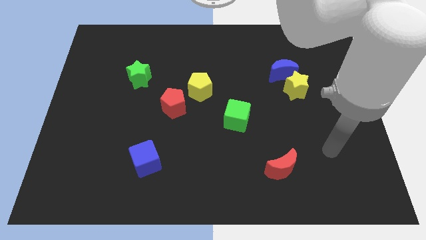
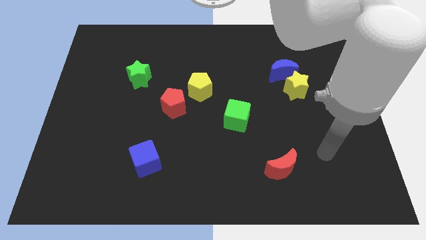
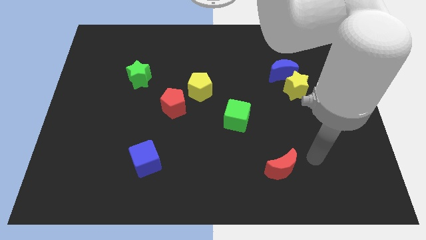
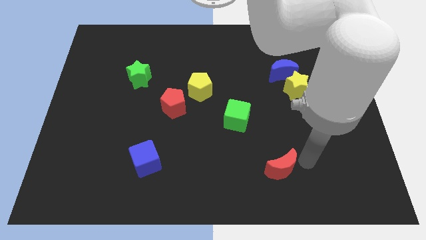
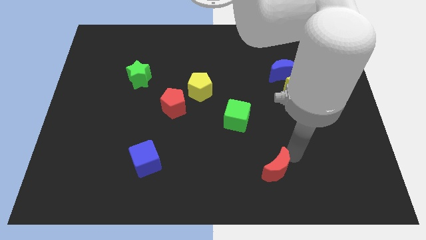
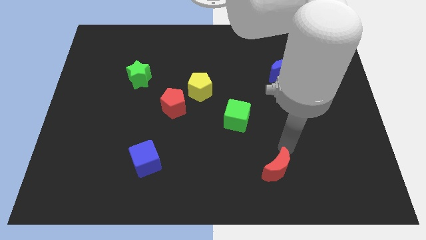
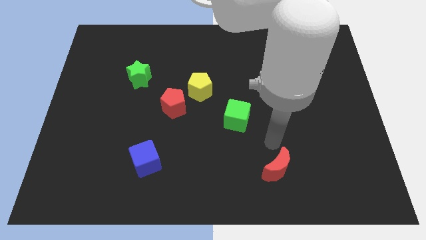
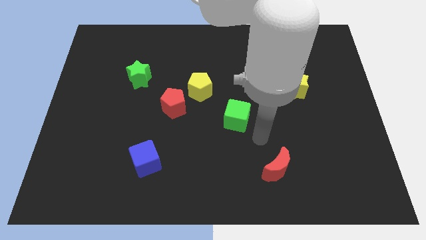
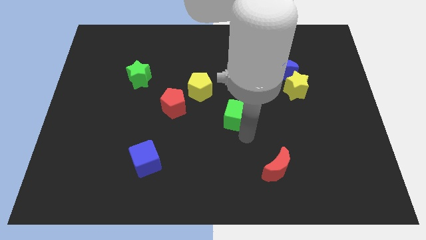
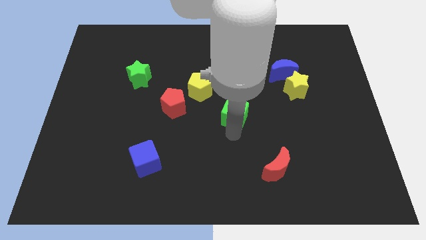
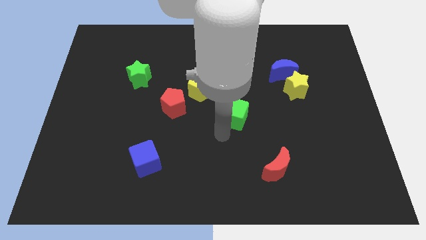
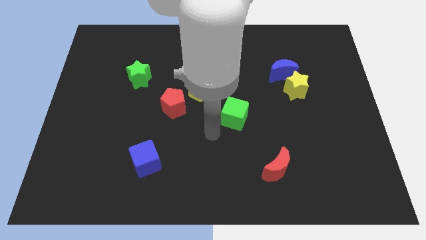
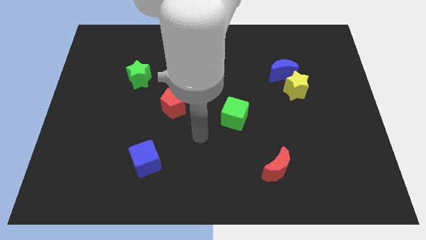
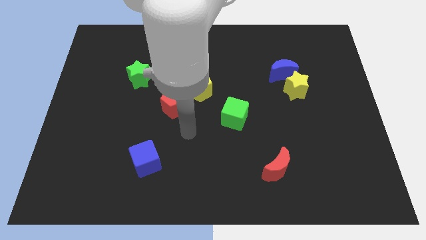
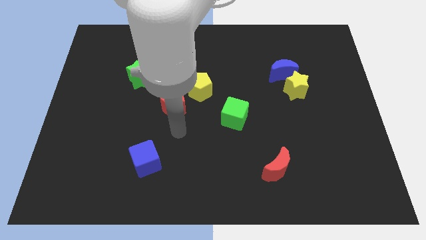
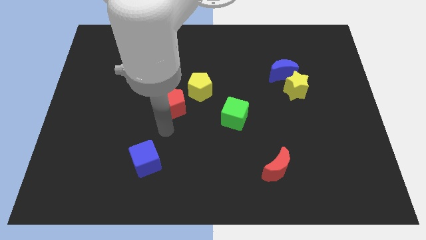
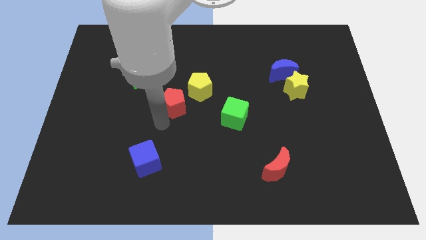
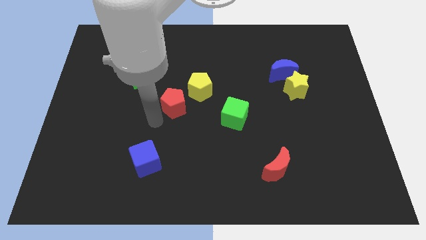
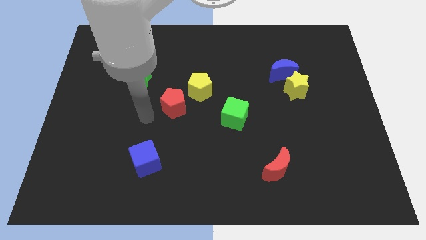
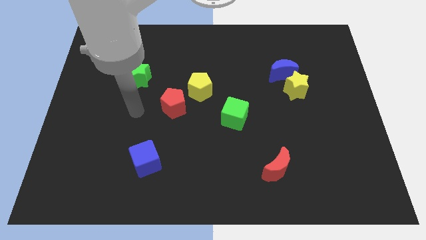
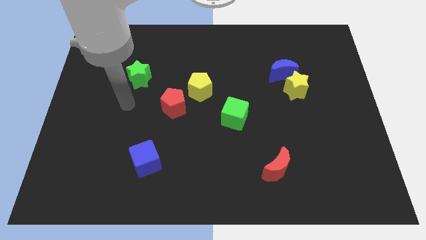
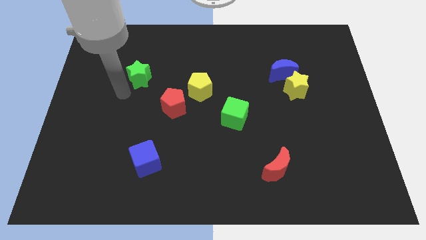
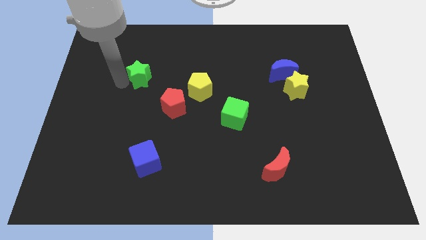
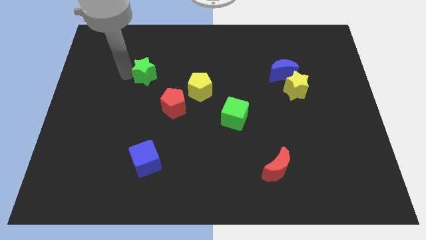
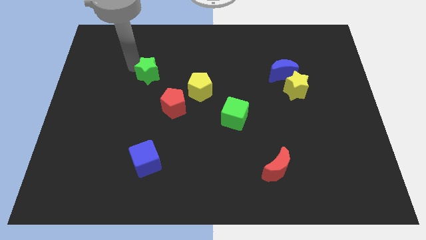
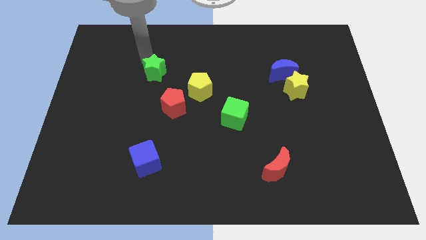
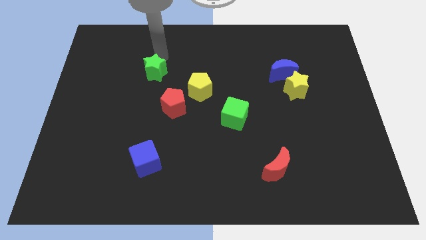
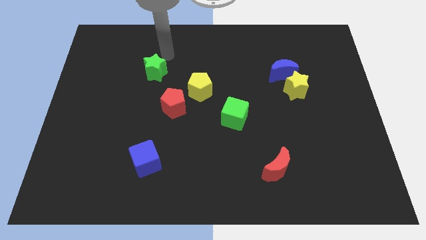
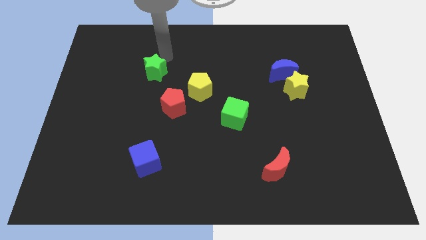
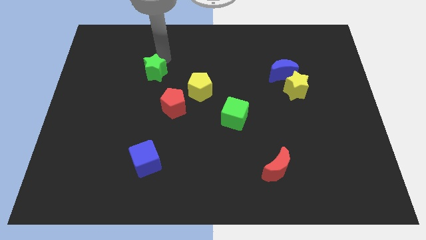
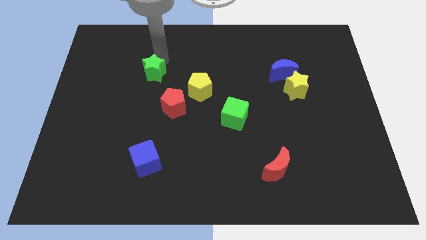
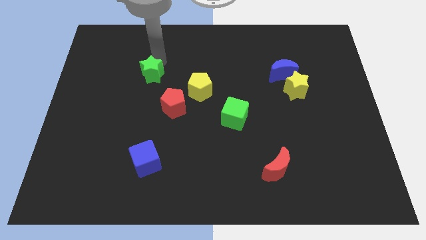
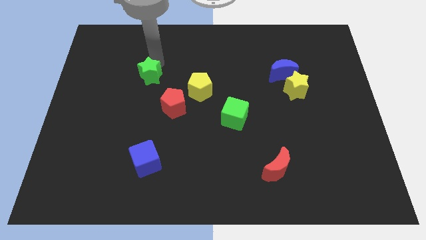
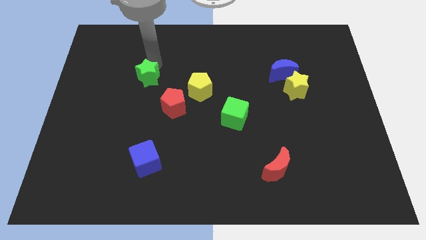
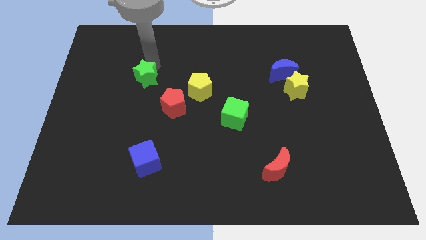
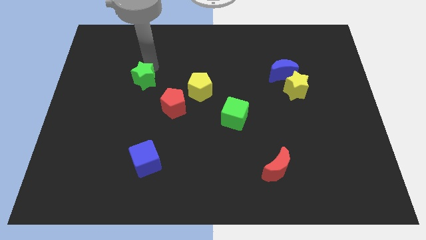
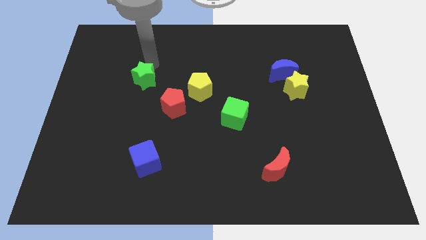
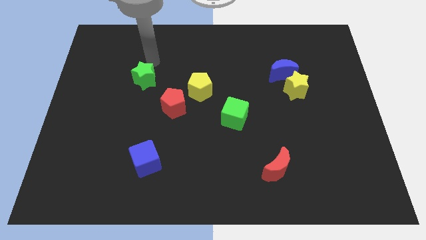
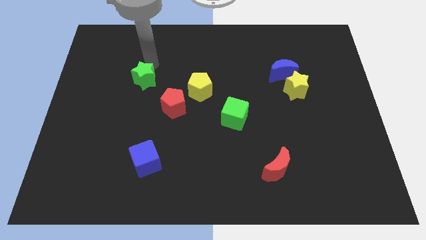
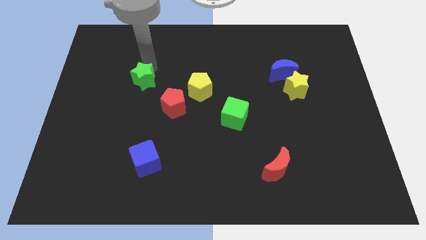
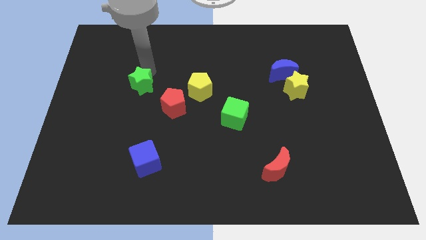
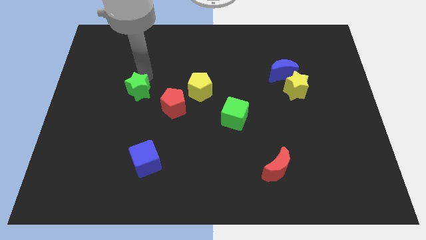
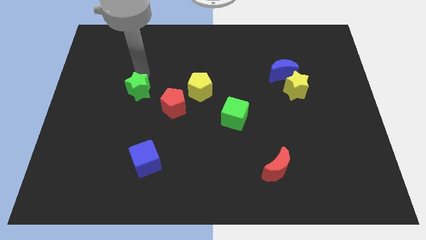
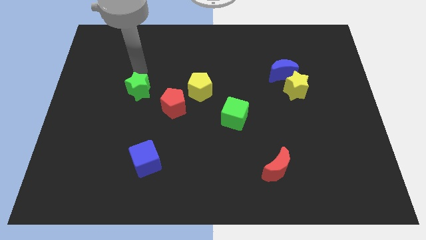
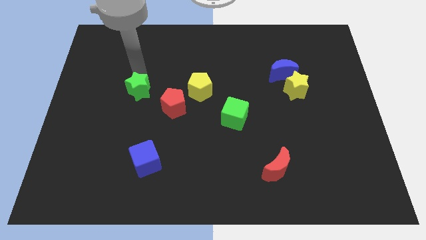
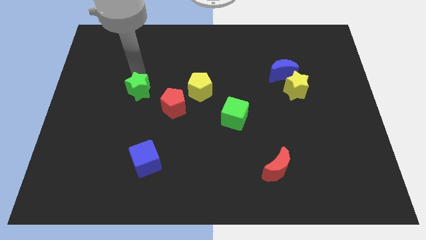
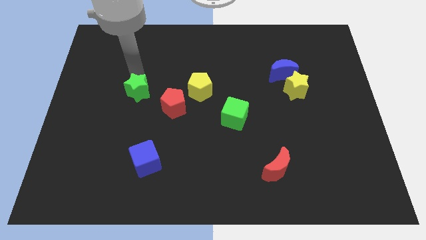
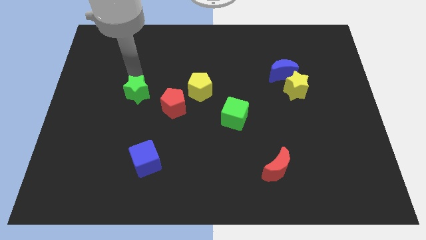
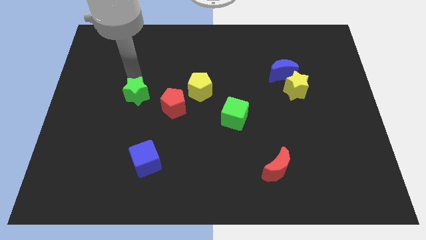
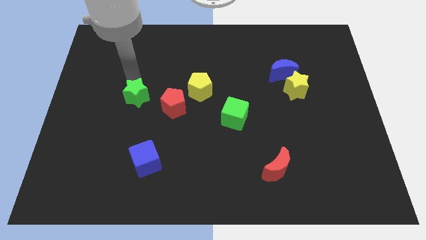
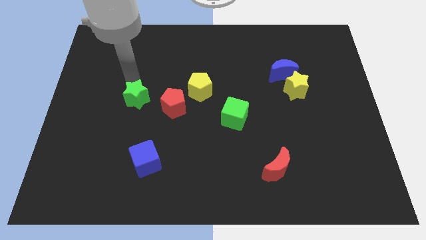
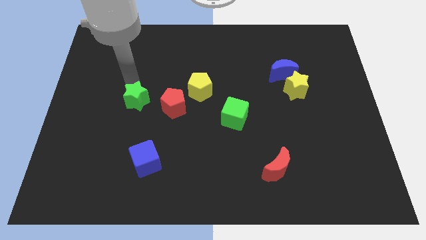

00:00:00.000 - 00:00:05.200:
slightly slide the green star down

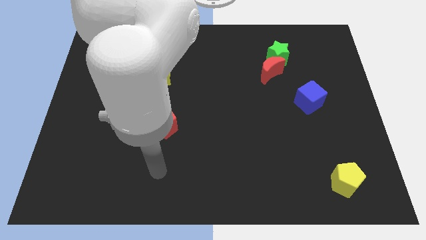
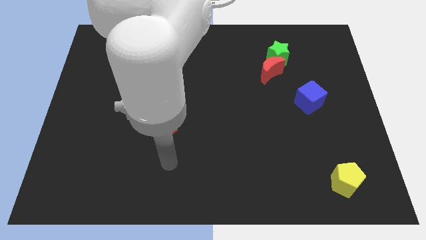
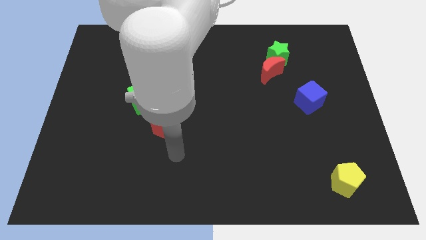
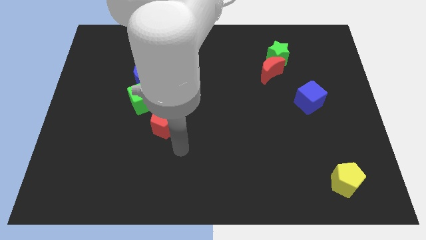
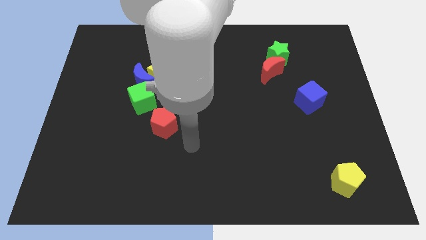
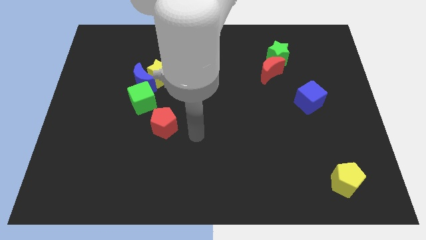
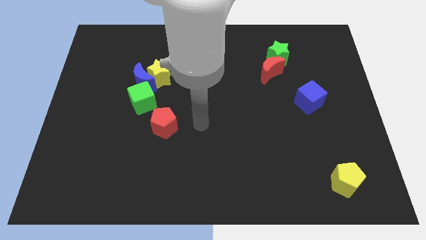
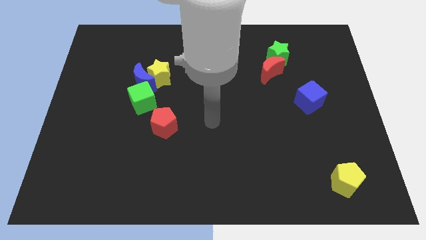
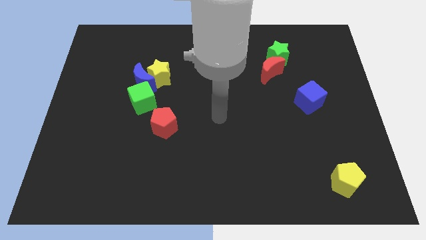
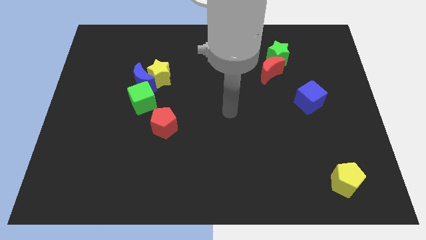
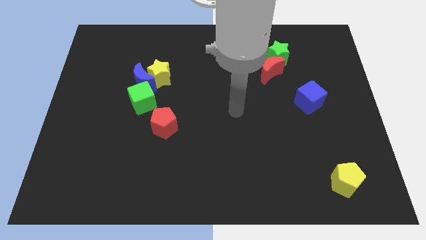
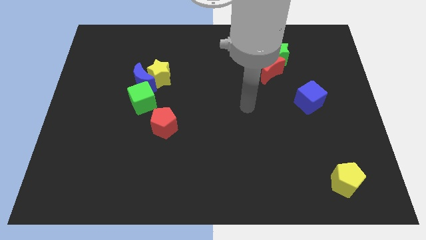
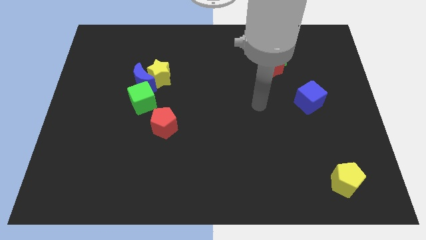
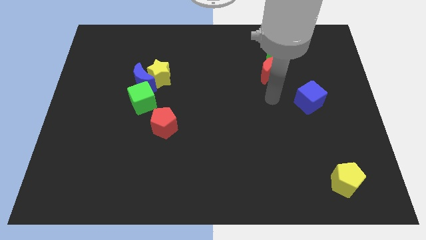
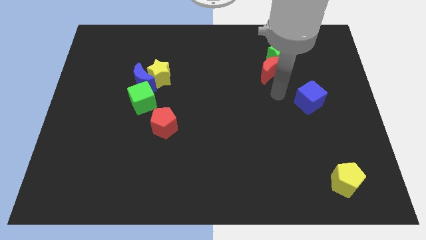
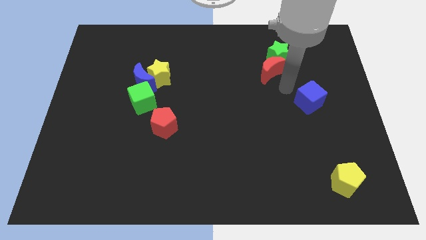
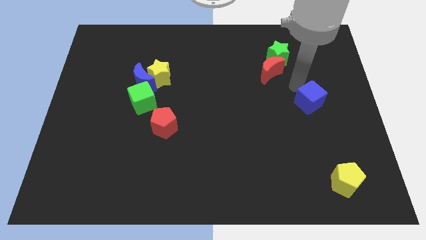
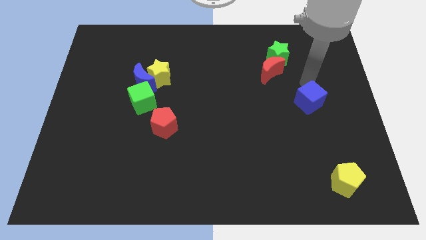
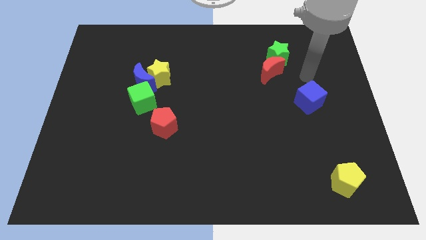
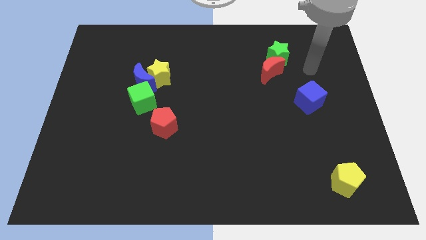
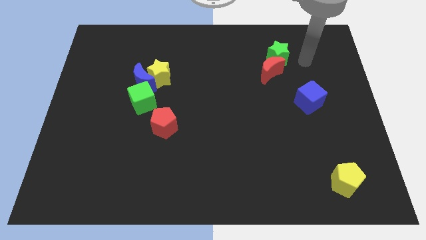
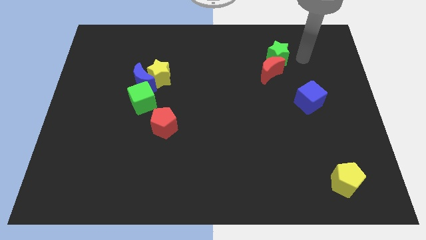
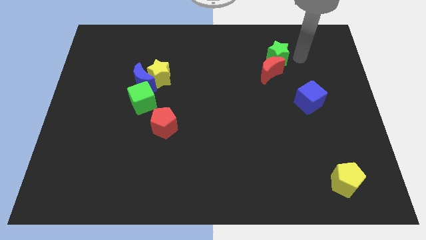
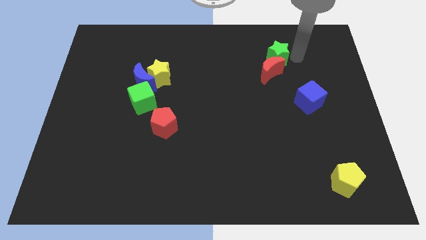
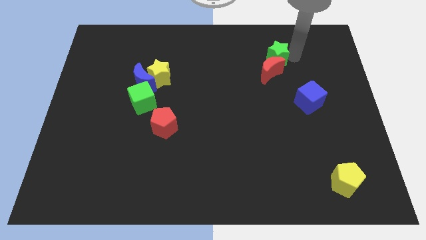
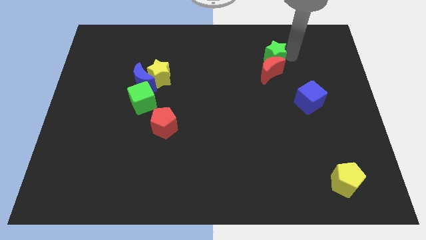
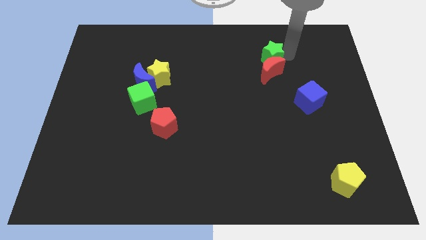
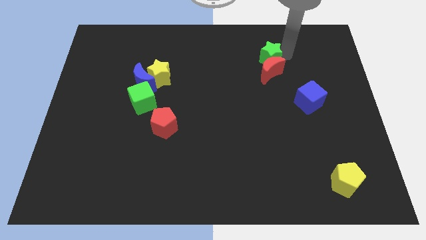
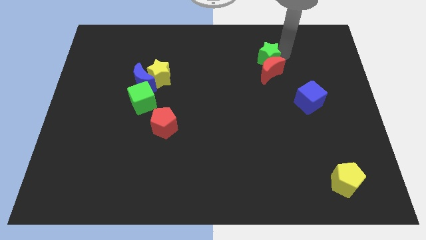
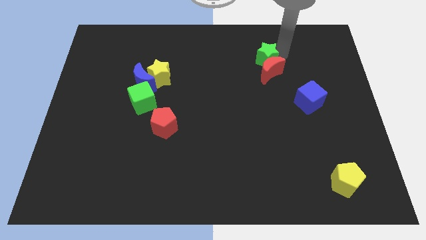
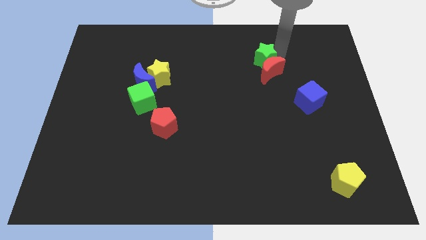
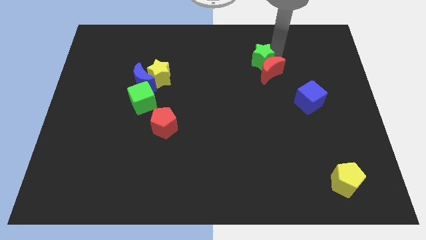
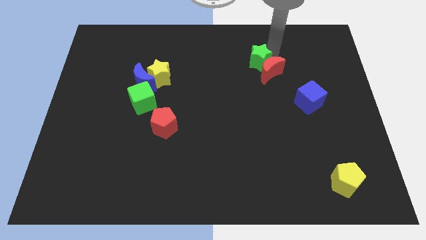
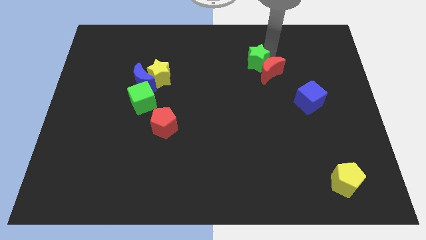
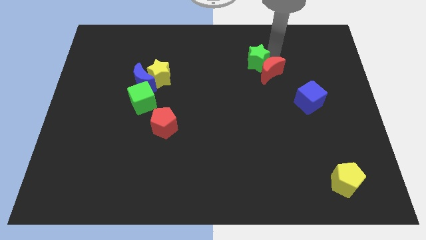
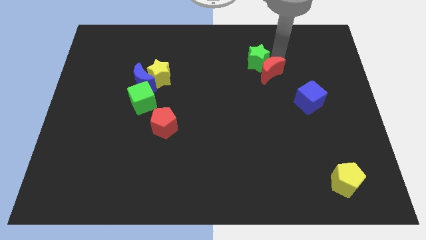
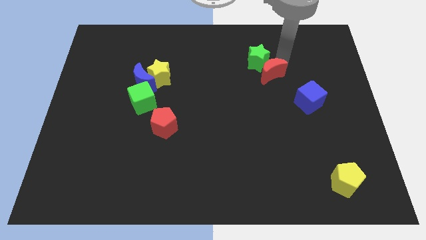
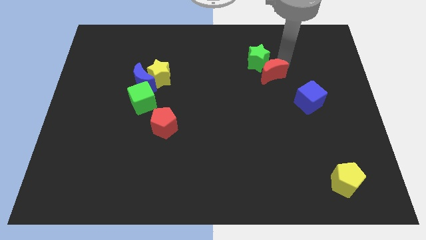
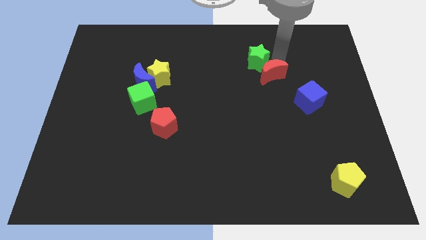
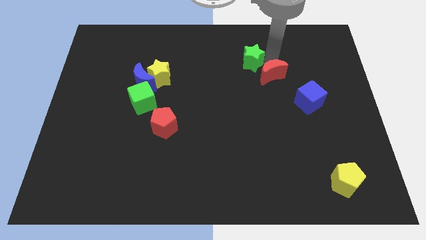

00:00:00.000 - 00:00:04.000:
slide the green star to the left somewhat
